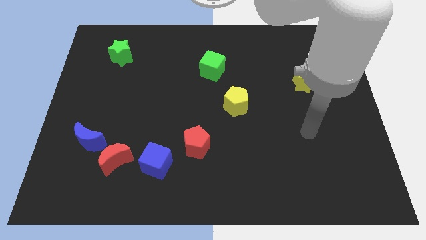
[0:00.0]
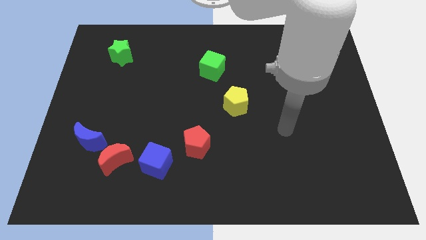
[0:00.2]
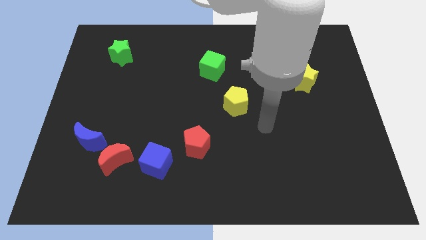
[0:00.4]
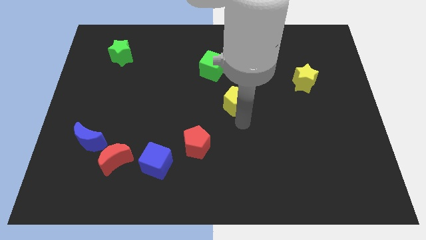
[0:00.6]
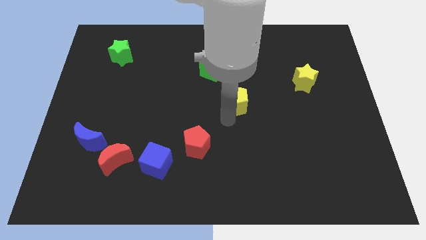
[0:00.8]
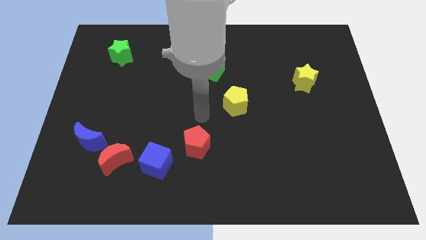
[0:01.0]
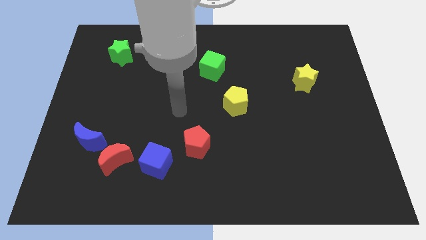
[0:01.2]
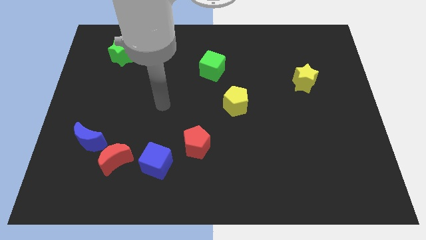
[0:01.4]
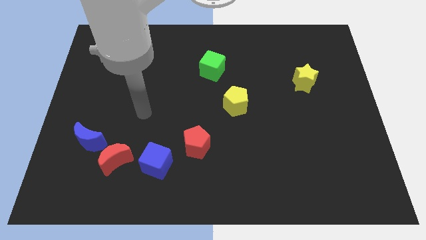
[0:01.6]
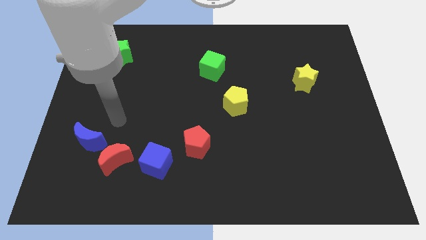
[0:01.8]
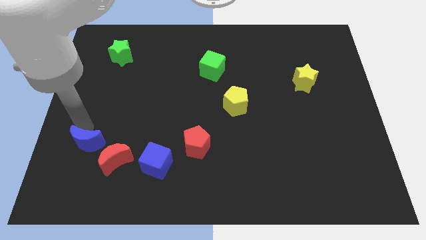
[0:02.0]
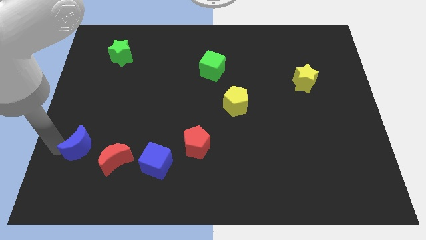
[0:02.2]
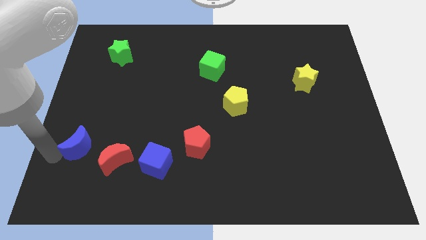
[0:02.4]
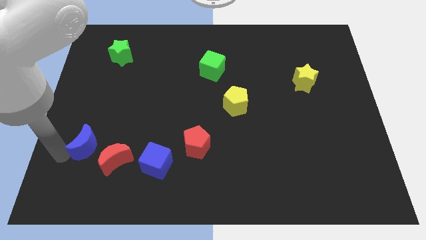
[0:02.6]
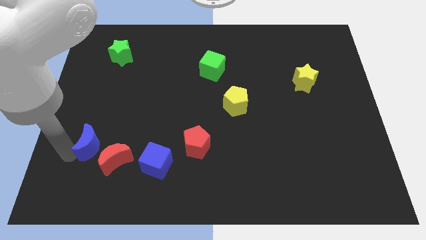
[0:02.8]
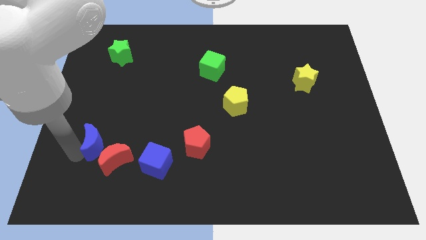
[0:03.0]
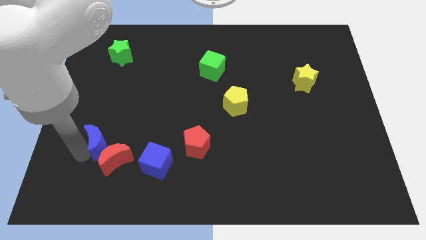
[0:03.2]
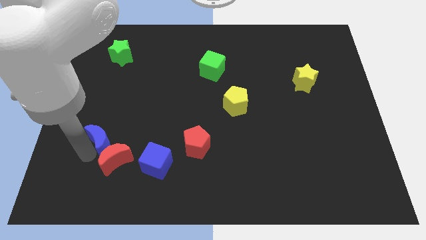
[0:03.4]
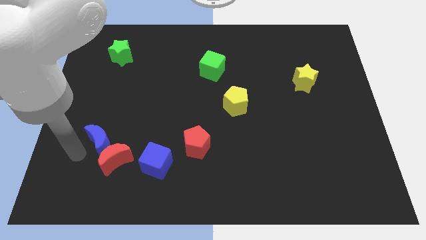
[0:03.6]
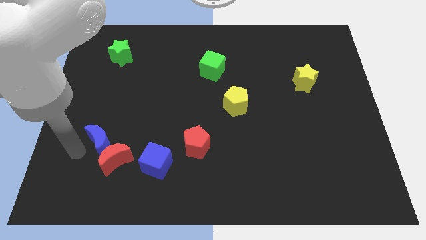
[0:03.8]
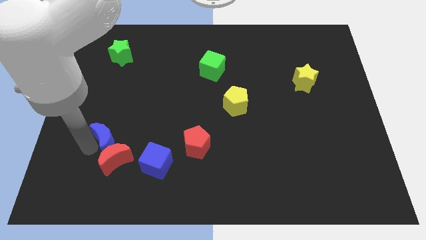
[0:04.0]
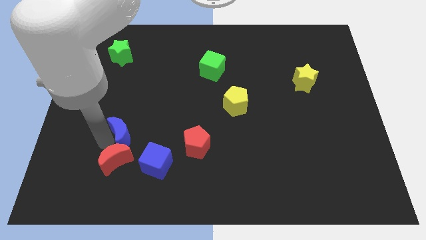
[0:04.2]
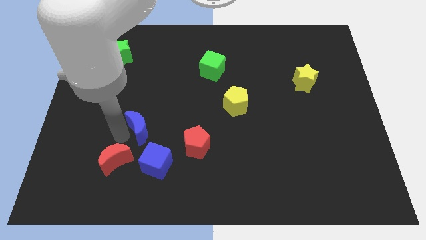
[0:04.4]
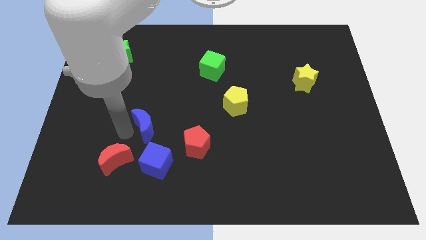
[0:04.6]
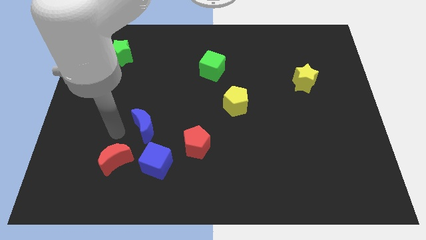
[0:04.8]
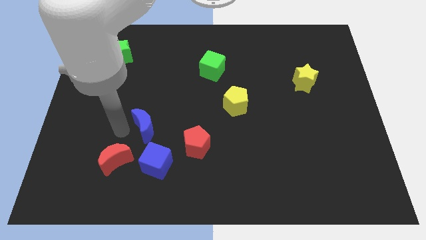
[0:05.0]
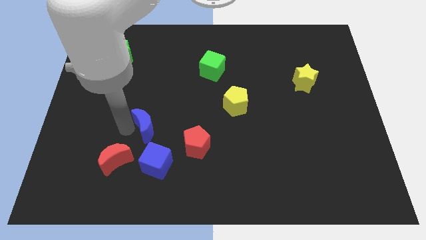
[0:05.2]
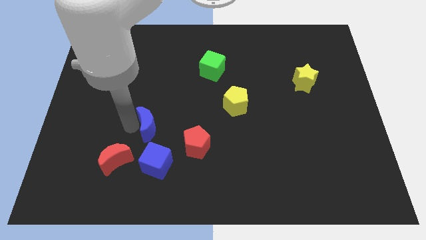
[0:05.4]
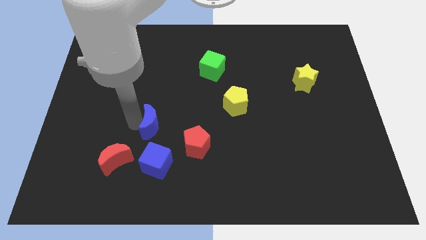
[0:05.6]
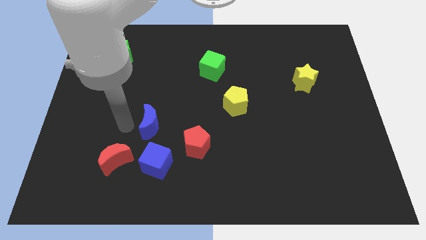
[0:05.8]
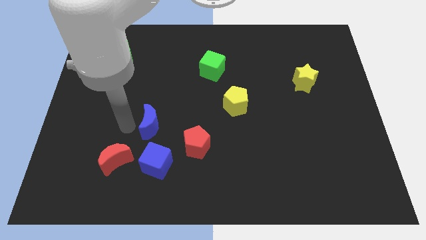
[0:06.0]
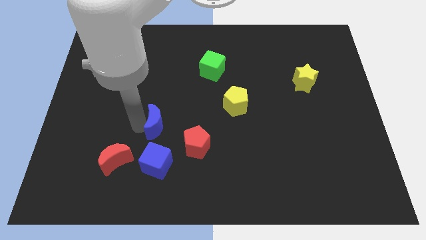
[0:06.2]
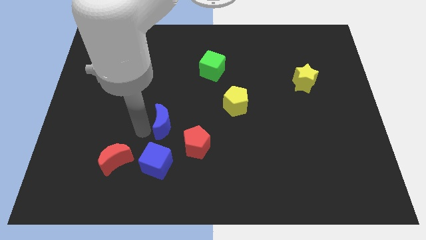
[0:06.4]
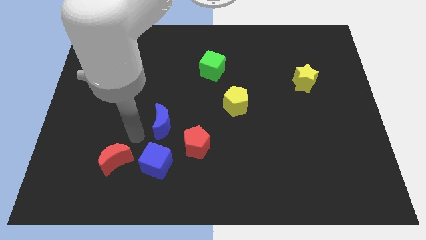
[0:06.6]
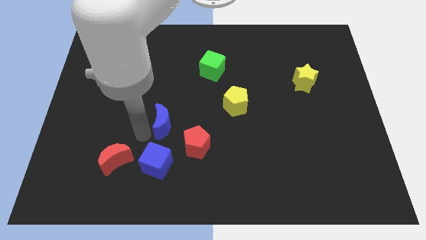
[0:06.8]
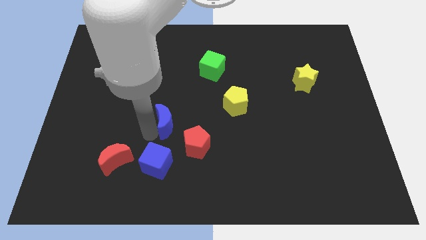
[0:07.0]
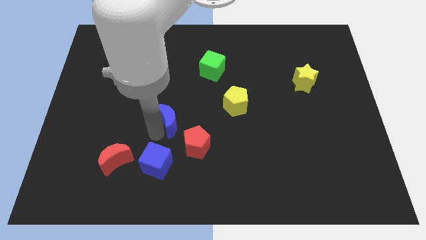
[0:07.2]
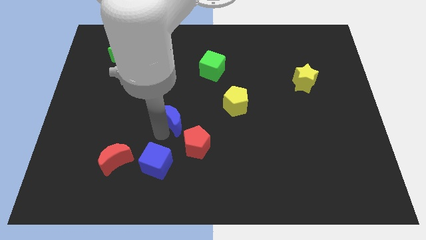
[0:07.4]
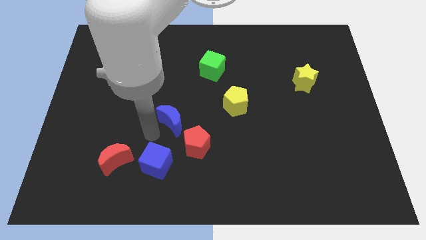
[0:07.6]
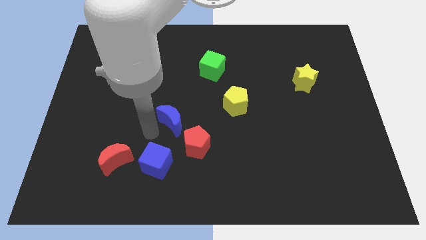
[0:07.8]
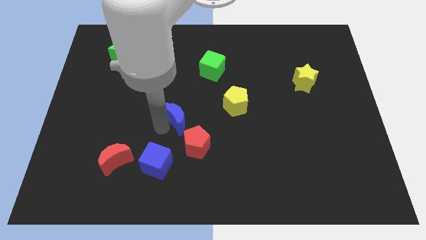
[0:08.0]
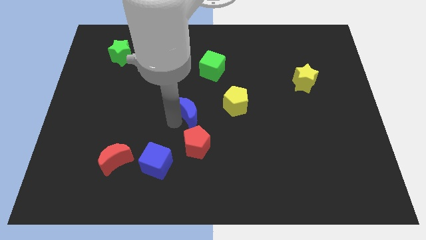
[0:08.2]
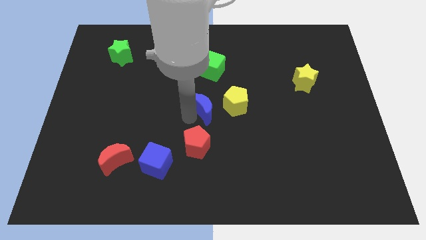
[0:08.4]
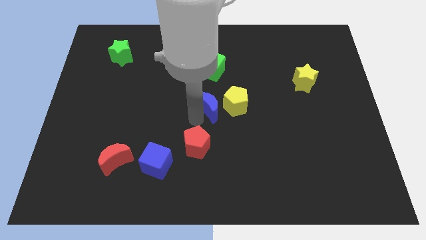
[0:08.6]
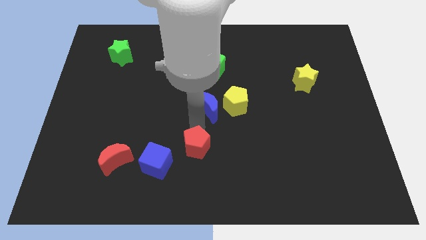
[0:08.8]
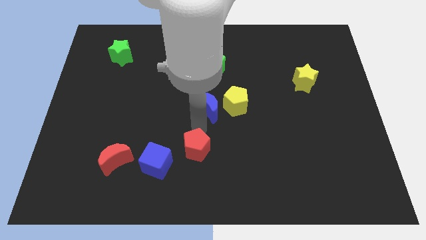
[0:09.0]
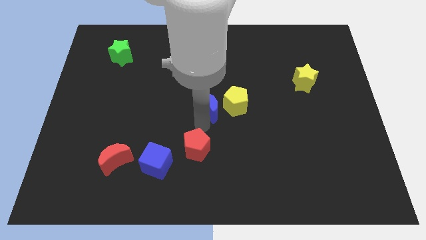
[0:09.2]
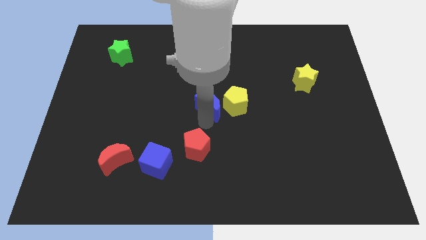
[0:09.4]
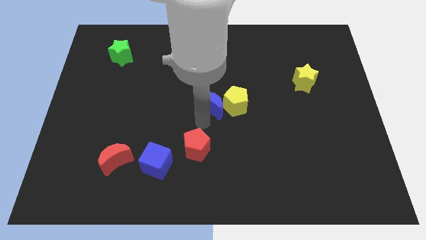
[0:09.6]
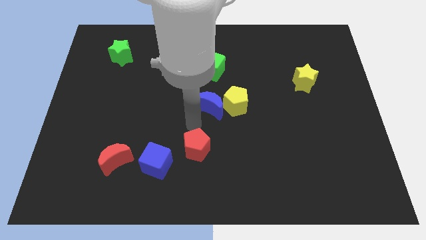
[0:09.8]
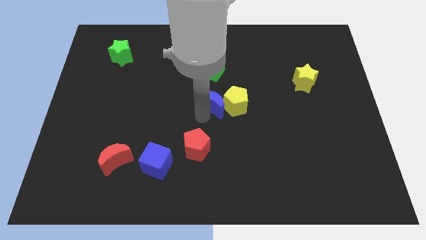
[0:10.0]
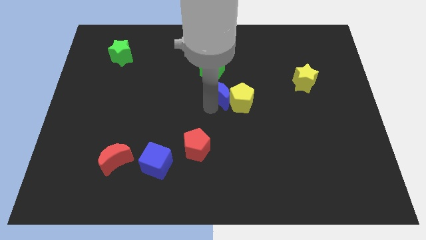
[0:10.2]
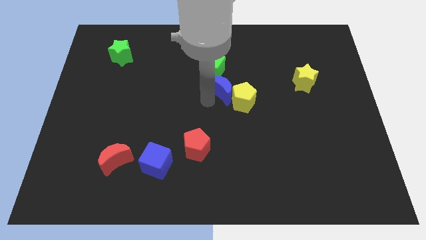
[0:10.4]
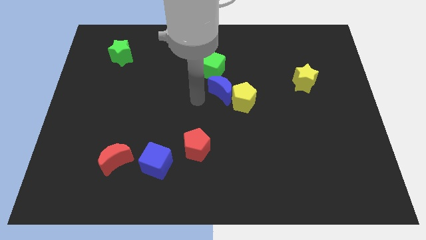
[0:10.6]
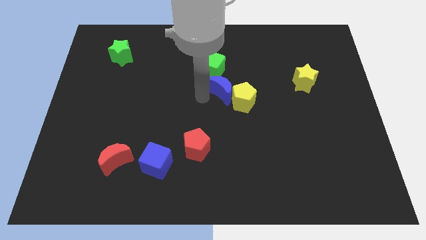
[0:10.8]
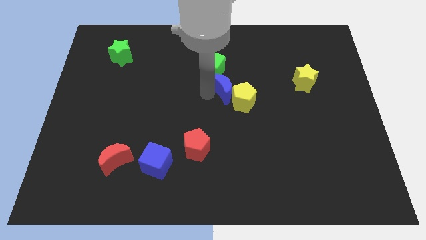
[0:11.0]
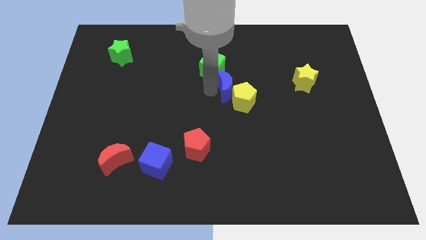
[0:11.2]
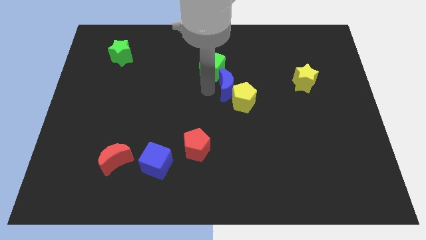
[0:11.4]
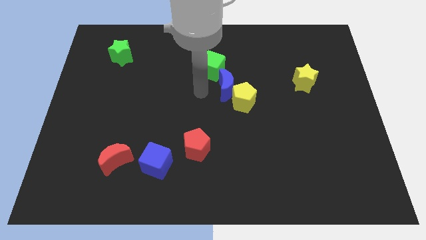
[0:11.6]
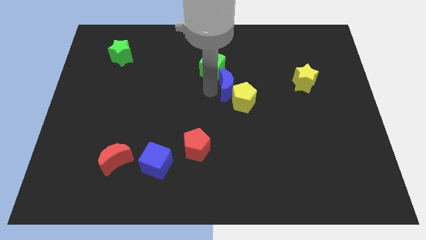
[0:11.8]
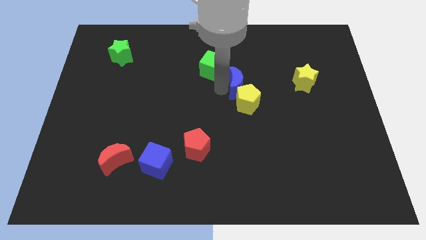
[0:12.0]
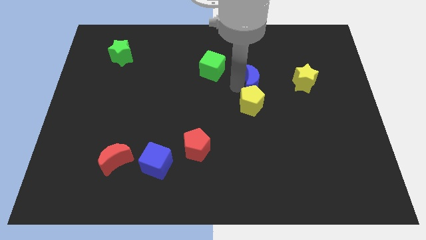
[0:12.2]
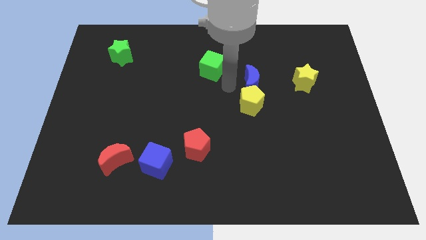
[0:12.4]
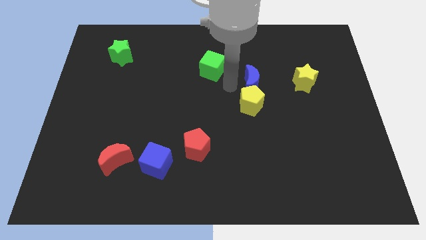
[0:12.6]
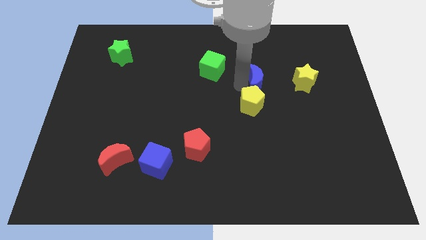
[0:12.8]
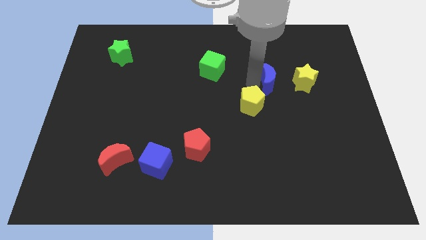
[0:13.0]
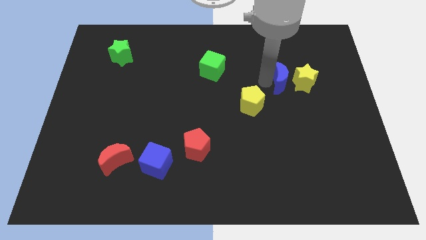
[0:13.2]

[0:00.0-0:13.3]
slide the blue moon next to the yellow star
